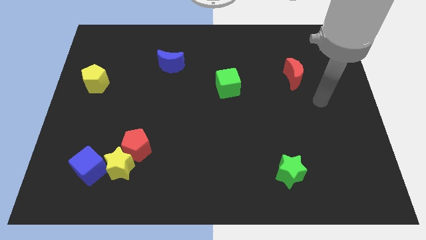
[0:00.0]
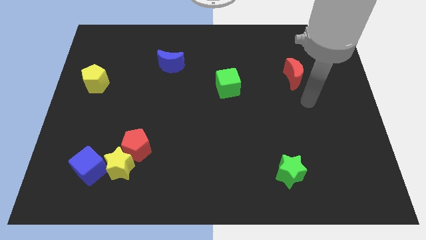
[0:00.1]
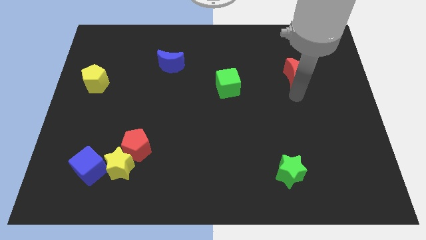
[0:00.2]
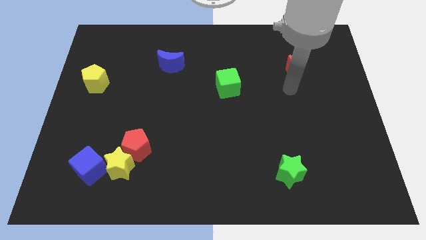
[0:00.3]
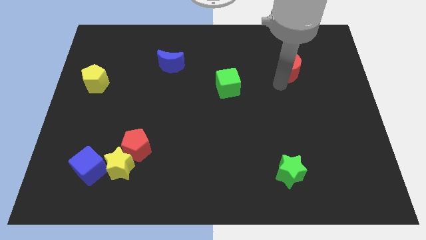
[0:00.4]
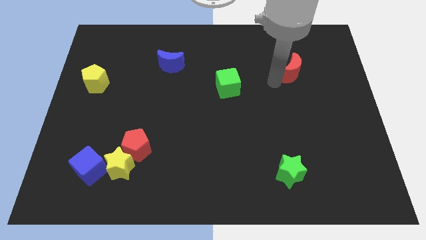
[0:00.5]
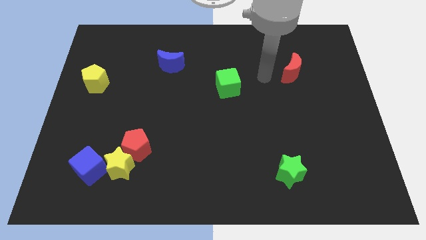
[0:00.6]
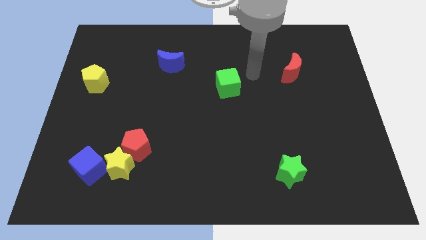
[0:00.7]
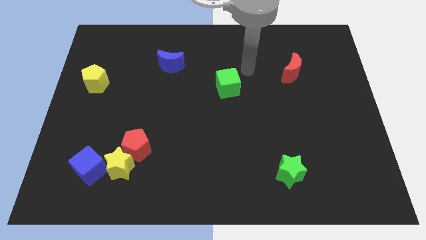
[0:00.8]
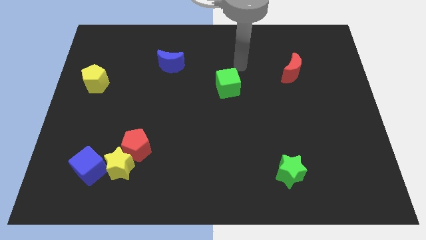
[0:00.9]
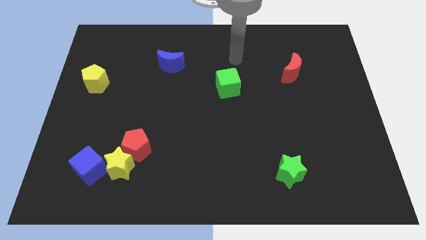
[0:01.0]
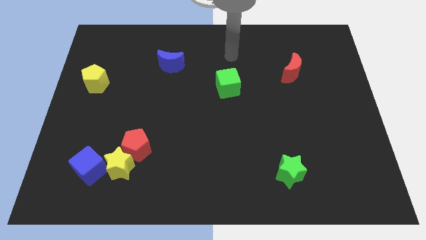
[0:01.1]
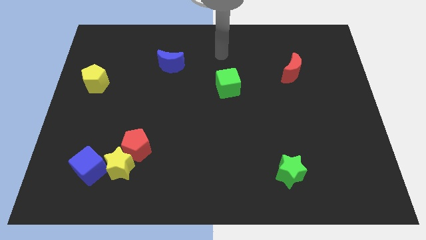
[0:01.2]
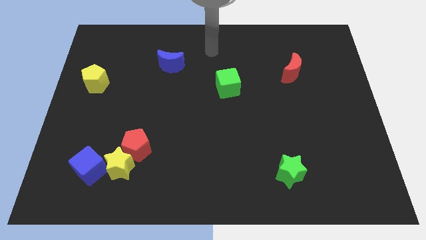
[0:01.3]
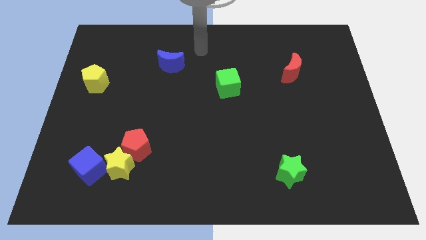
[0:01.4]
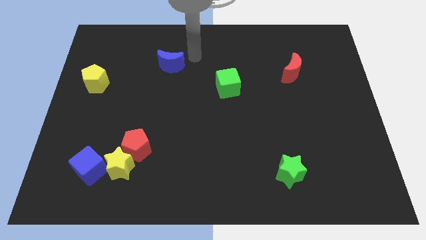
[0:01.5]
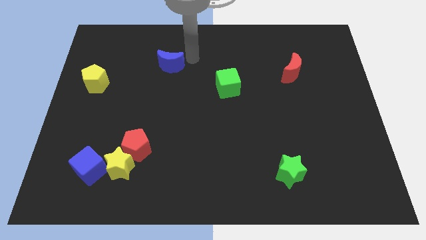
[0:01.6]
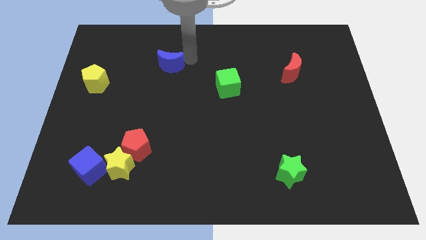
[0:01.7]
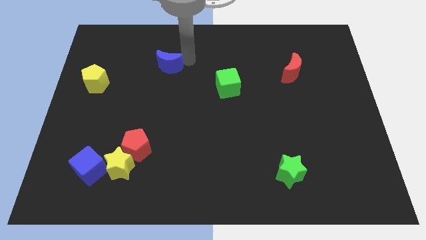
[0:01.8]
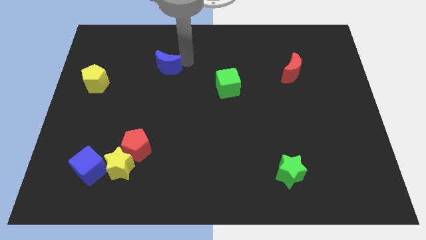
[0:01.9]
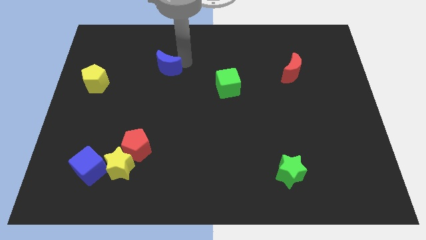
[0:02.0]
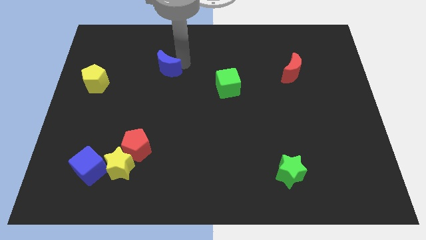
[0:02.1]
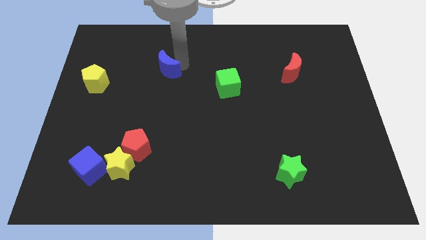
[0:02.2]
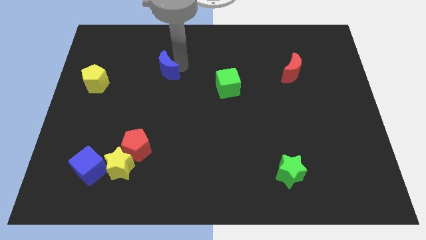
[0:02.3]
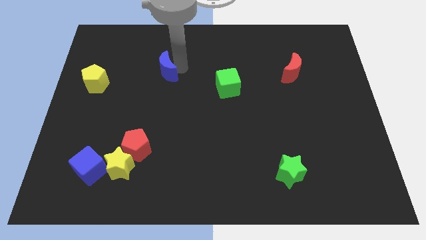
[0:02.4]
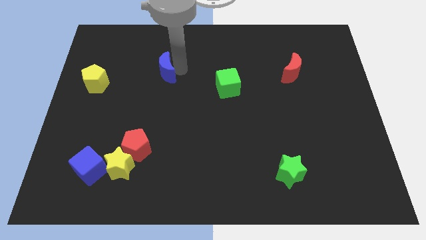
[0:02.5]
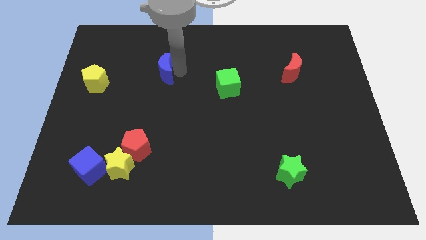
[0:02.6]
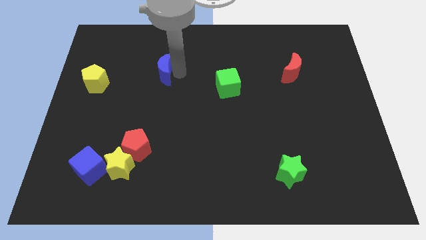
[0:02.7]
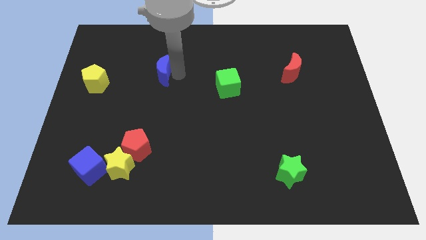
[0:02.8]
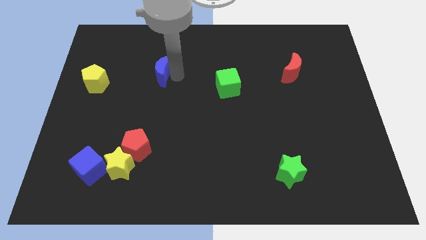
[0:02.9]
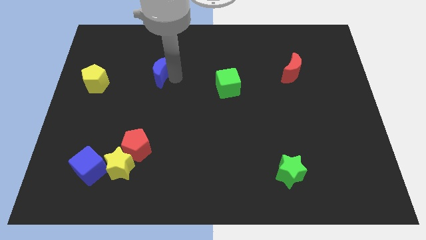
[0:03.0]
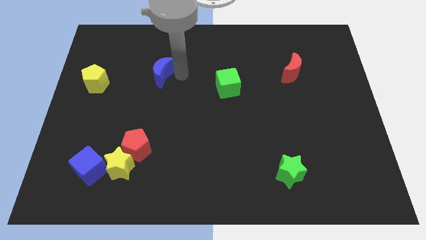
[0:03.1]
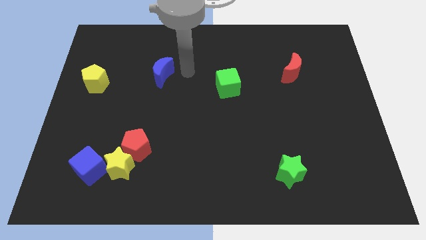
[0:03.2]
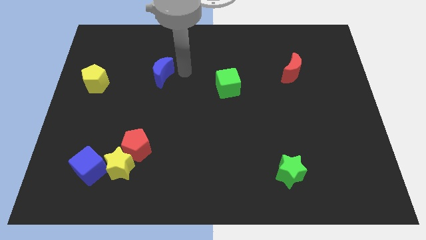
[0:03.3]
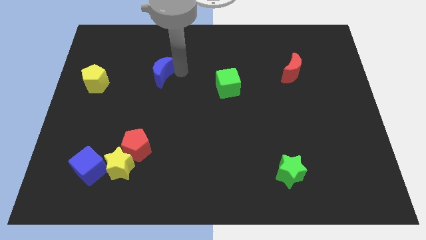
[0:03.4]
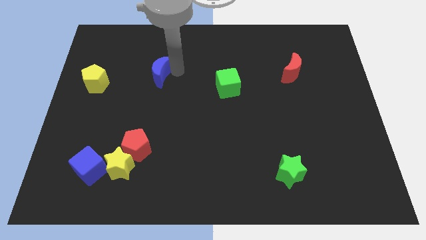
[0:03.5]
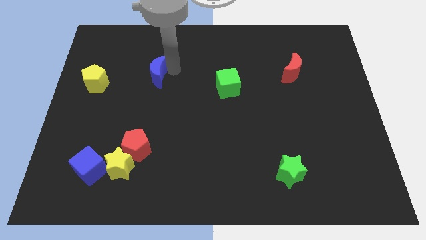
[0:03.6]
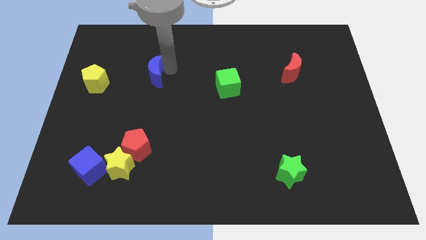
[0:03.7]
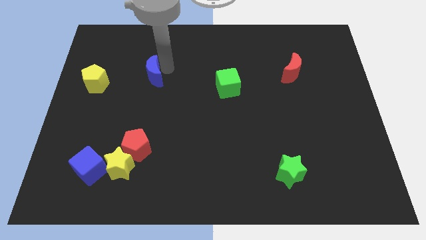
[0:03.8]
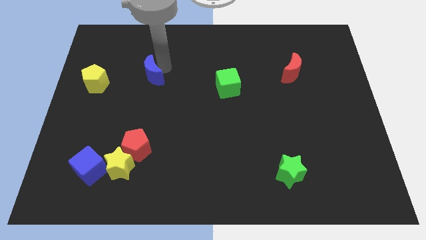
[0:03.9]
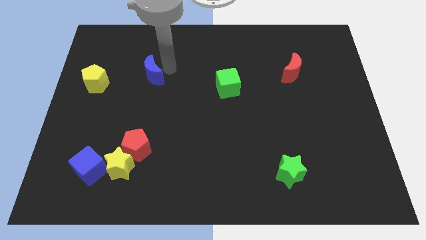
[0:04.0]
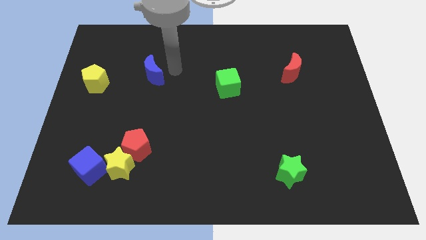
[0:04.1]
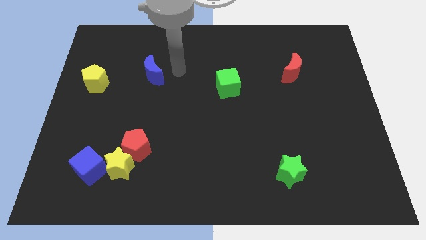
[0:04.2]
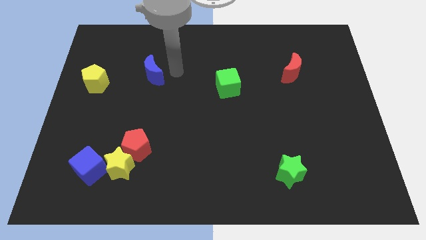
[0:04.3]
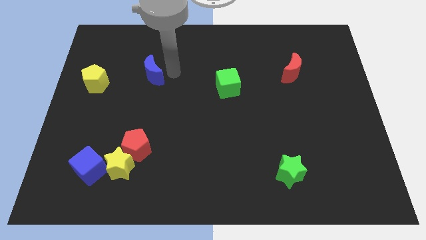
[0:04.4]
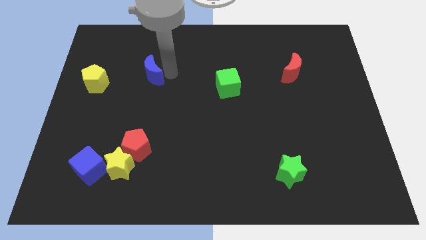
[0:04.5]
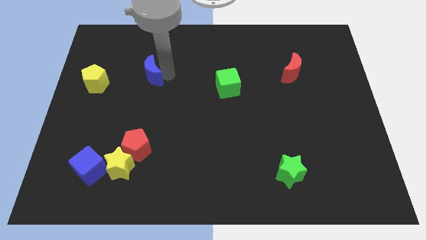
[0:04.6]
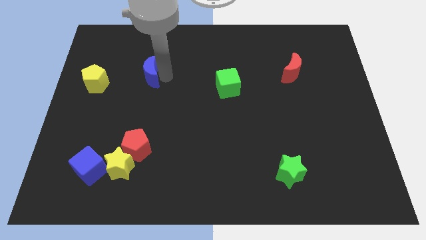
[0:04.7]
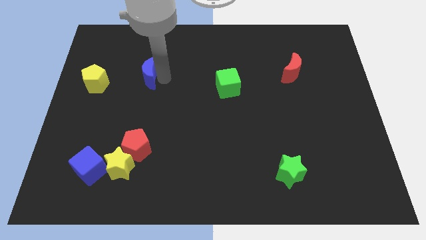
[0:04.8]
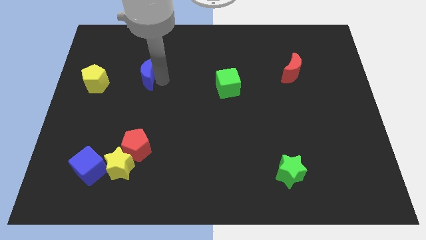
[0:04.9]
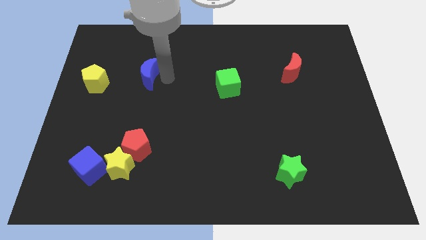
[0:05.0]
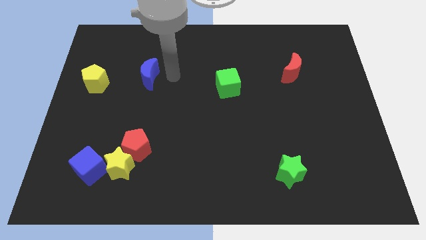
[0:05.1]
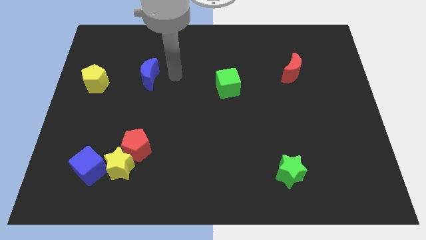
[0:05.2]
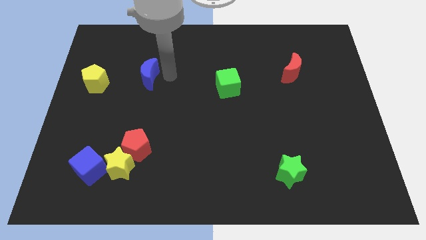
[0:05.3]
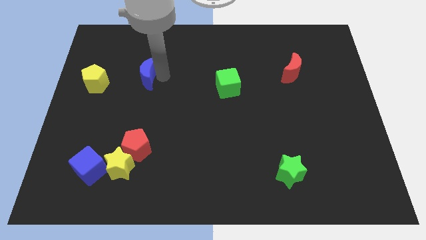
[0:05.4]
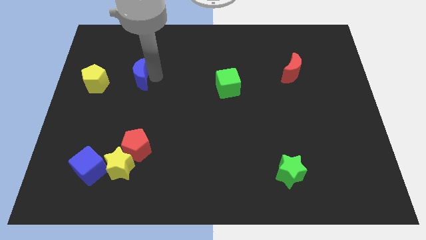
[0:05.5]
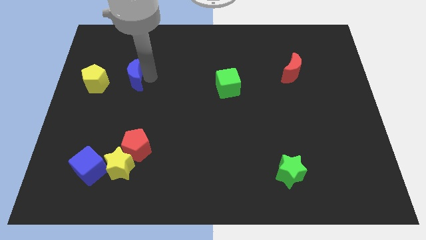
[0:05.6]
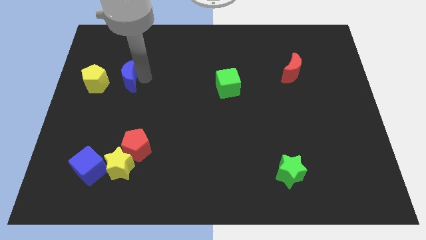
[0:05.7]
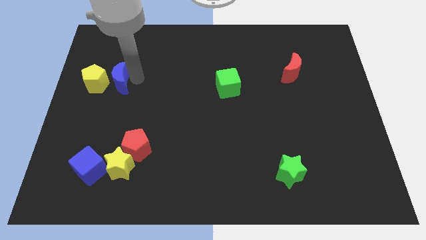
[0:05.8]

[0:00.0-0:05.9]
put the blue moon close to the yellow pentagon
